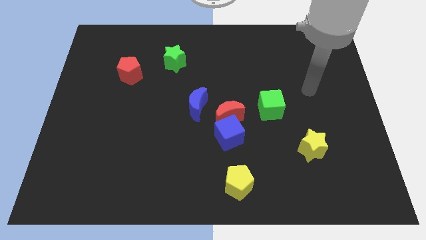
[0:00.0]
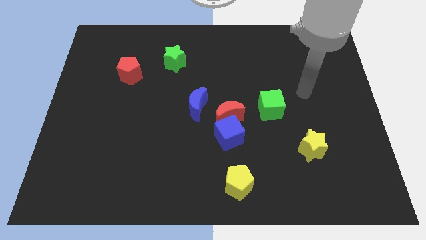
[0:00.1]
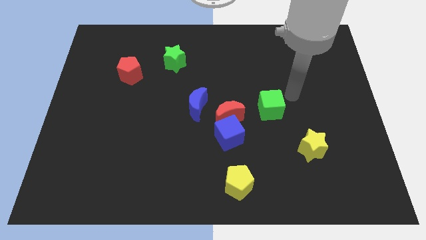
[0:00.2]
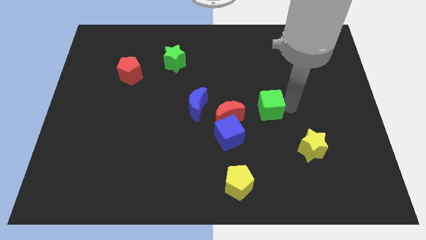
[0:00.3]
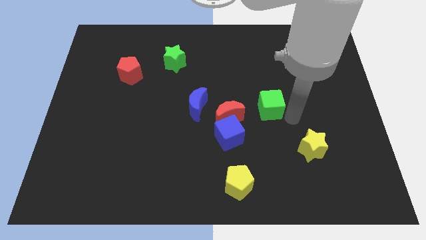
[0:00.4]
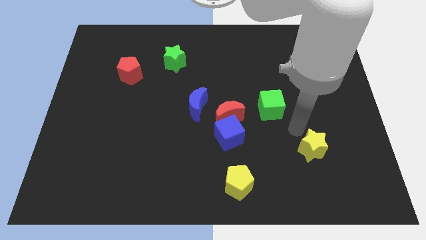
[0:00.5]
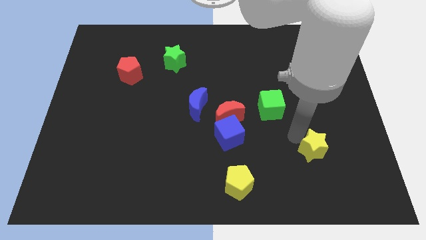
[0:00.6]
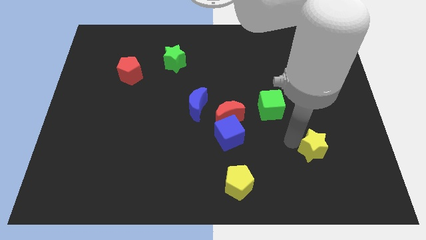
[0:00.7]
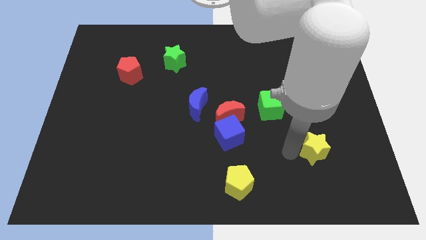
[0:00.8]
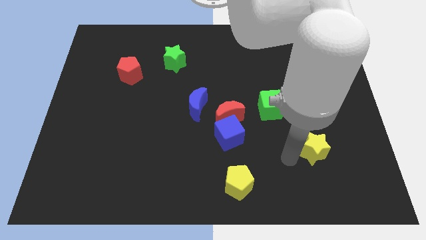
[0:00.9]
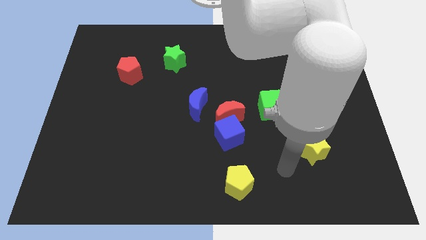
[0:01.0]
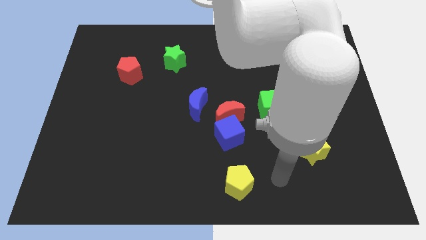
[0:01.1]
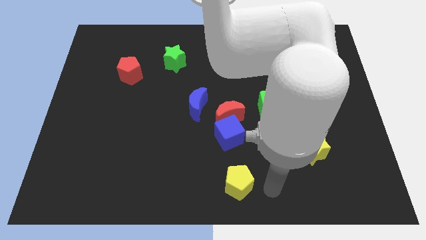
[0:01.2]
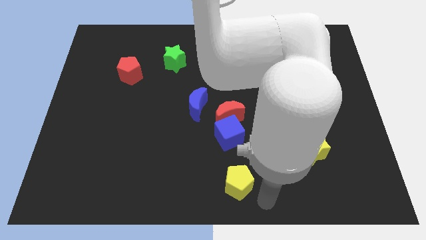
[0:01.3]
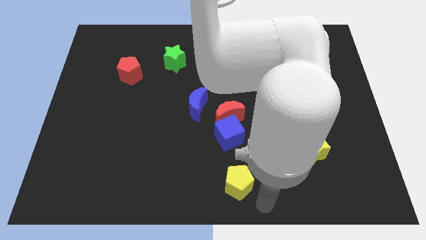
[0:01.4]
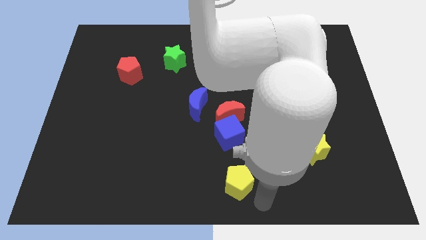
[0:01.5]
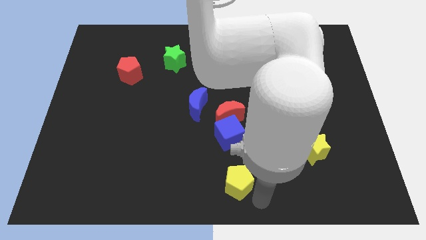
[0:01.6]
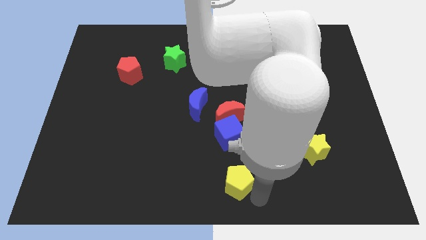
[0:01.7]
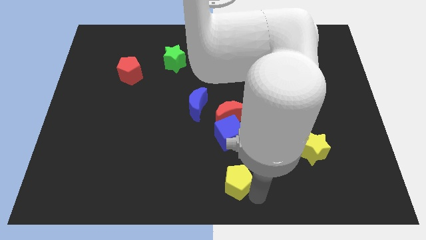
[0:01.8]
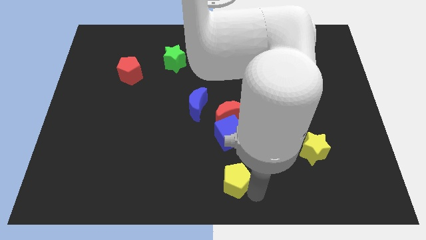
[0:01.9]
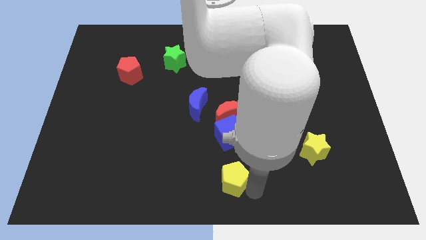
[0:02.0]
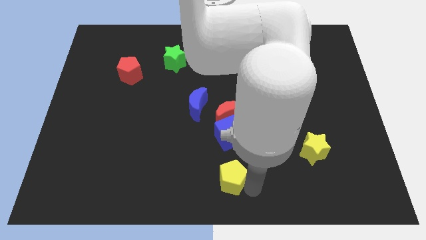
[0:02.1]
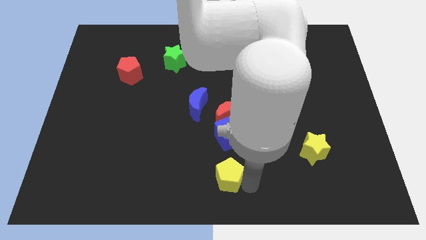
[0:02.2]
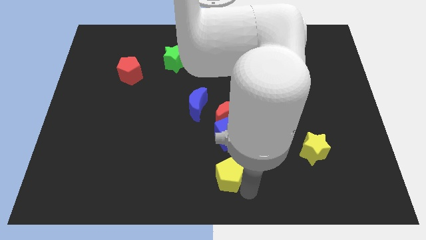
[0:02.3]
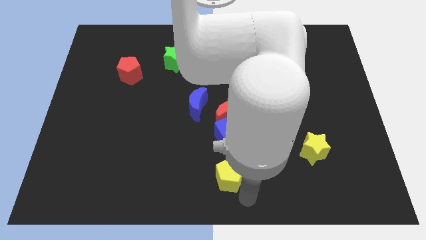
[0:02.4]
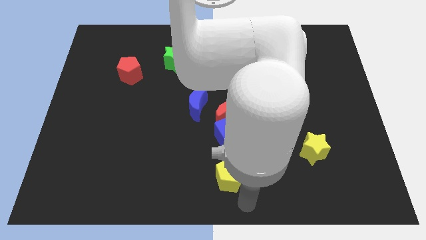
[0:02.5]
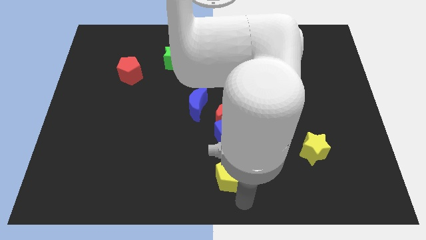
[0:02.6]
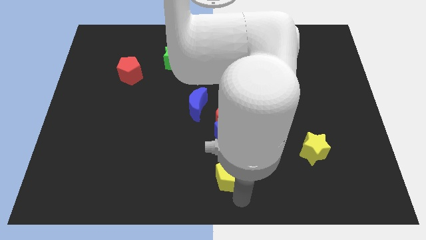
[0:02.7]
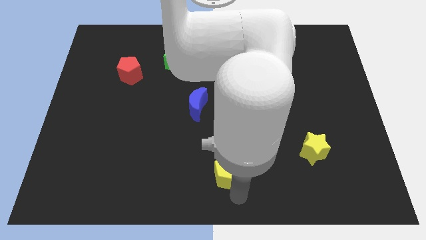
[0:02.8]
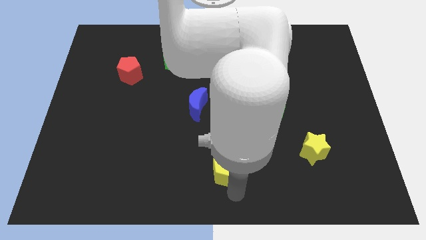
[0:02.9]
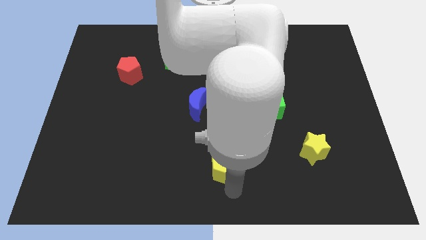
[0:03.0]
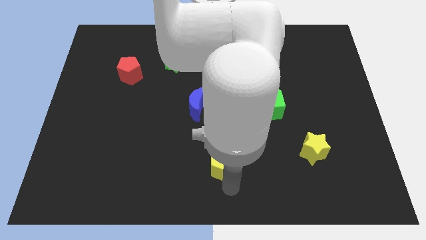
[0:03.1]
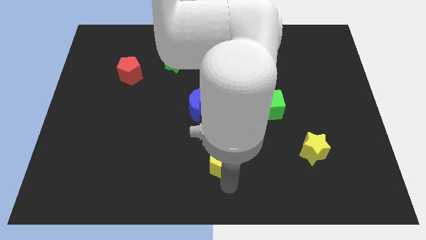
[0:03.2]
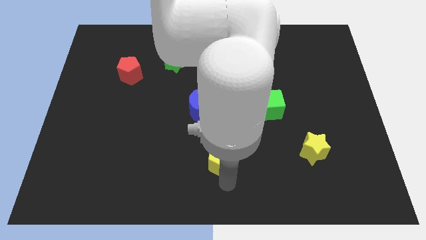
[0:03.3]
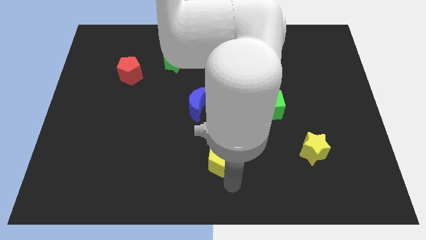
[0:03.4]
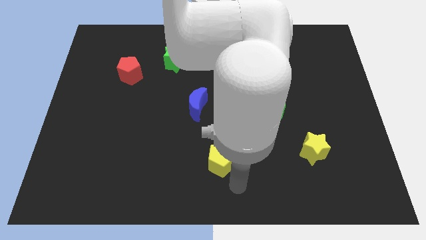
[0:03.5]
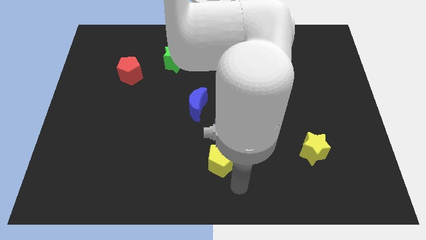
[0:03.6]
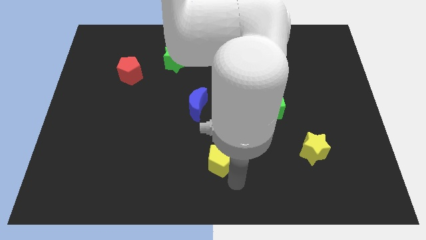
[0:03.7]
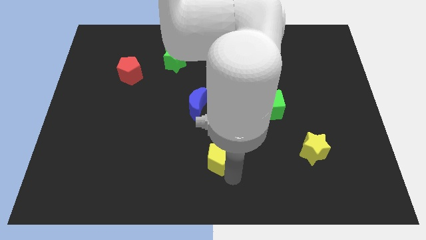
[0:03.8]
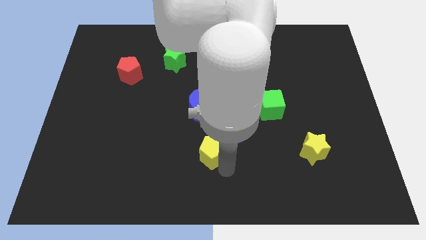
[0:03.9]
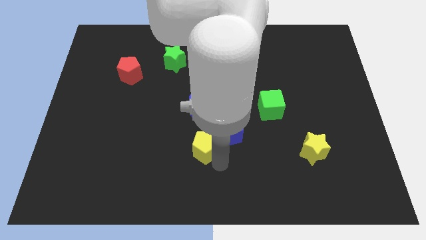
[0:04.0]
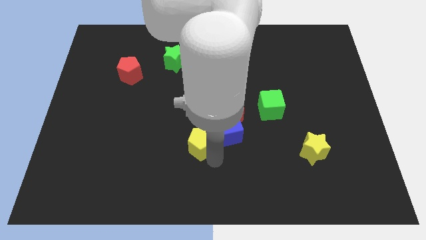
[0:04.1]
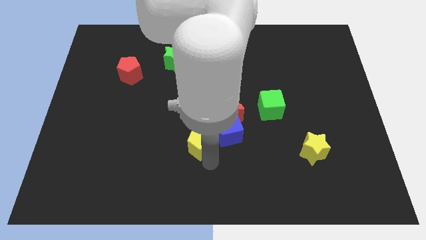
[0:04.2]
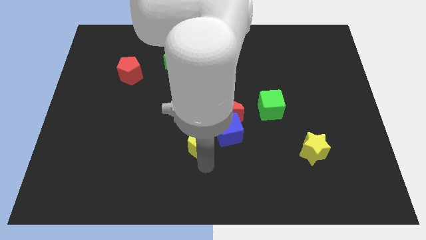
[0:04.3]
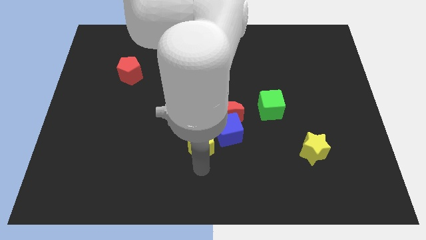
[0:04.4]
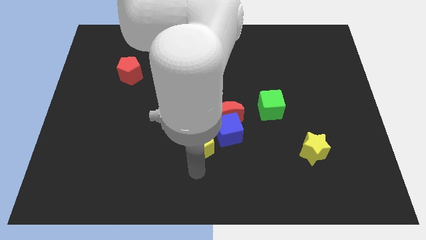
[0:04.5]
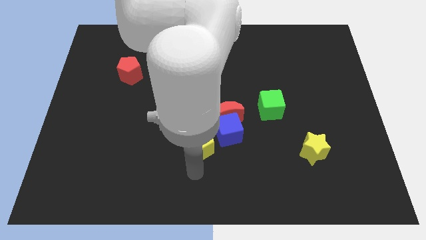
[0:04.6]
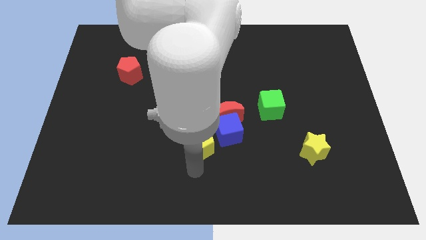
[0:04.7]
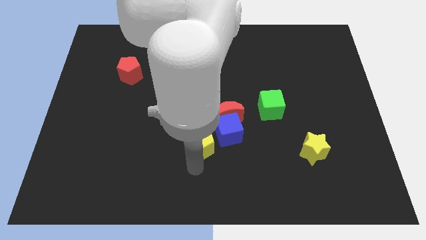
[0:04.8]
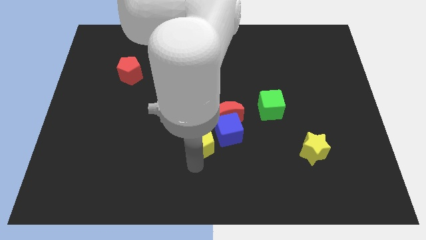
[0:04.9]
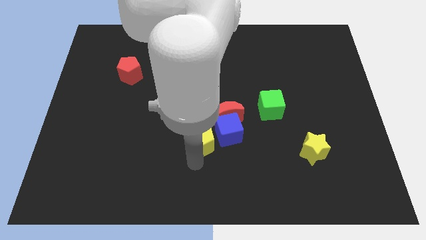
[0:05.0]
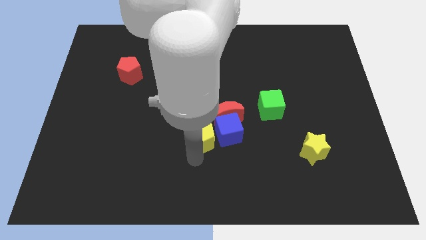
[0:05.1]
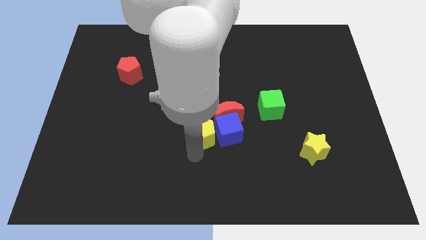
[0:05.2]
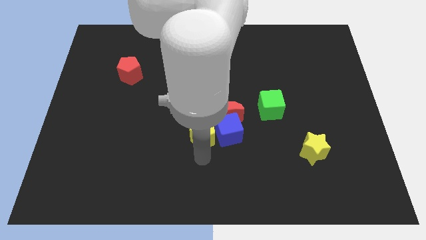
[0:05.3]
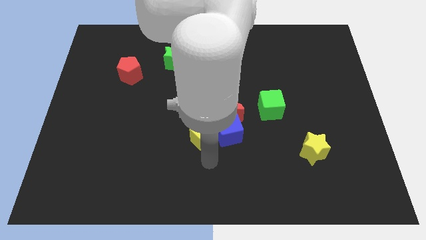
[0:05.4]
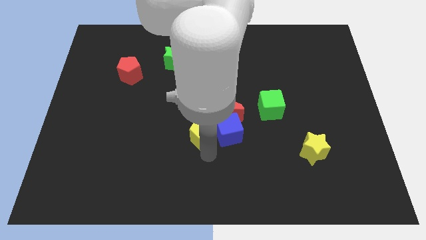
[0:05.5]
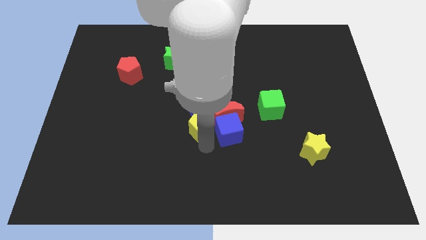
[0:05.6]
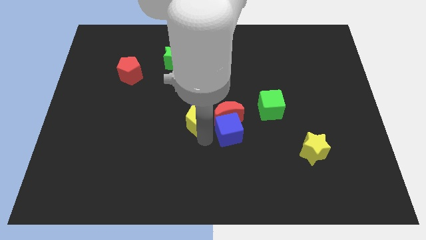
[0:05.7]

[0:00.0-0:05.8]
push the yellow pentagon towards the blue moon

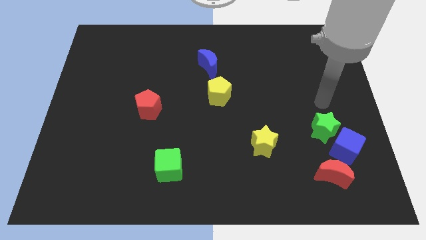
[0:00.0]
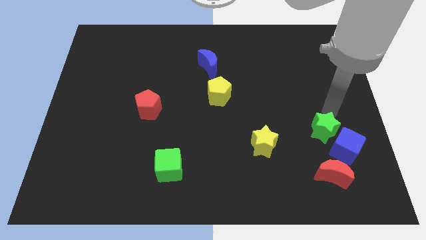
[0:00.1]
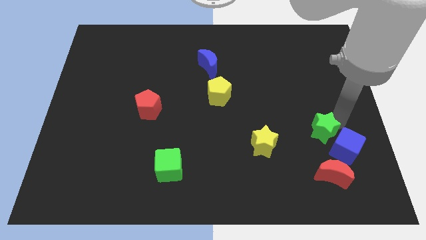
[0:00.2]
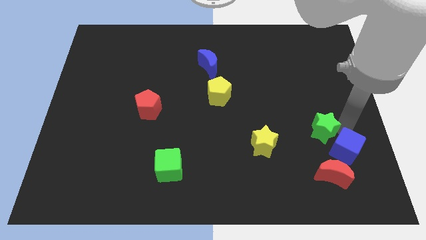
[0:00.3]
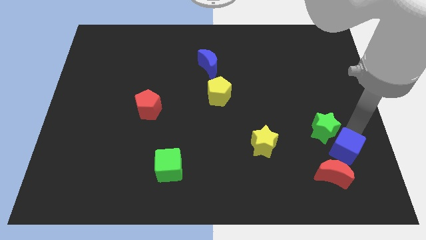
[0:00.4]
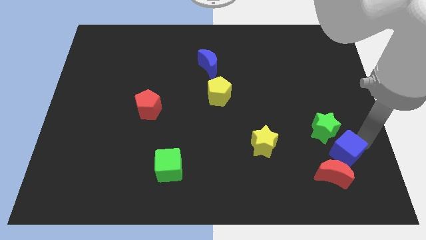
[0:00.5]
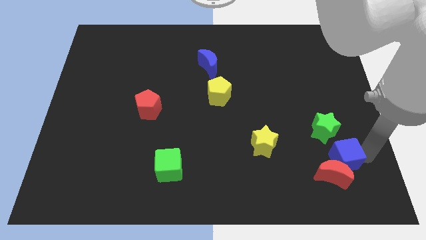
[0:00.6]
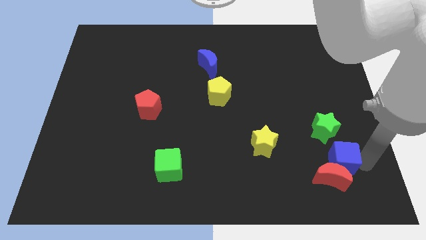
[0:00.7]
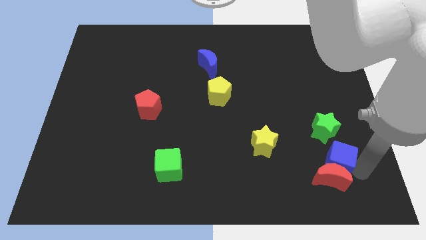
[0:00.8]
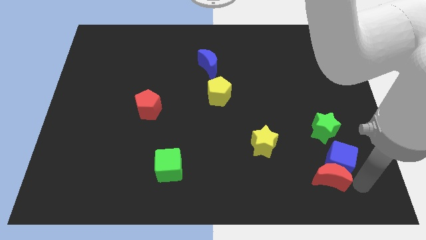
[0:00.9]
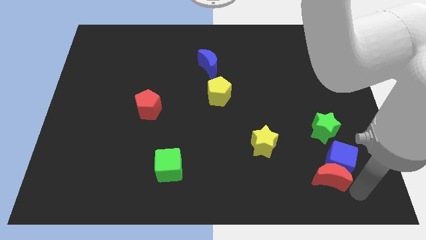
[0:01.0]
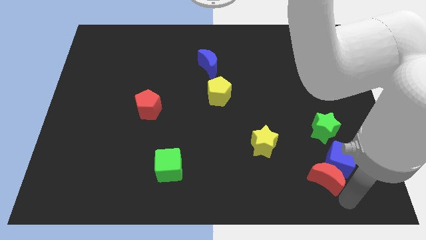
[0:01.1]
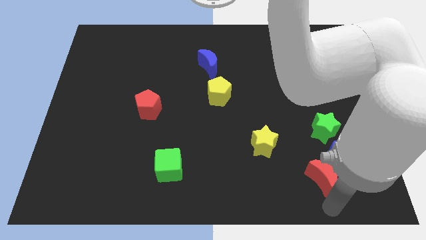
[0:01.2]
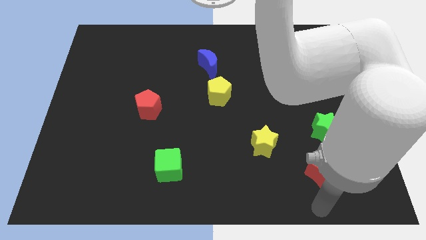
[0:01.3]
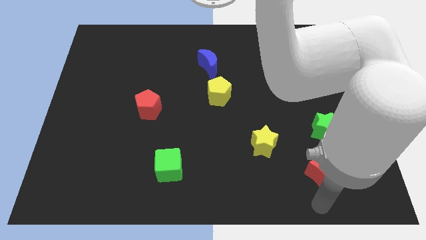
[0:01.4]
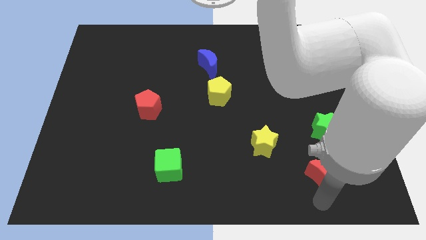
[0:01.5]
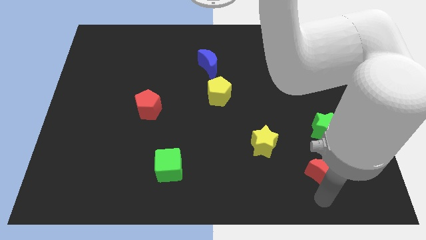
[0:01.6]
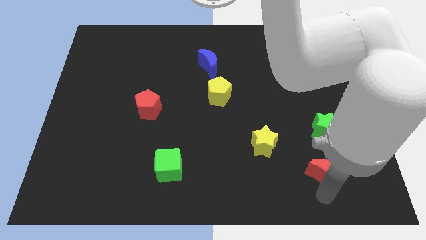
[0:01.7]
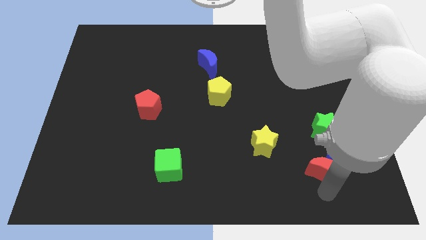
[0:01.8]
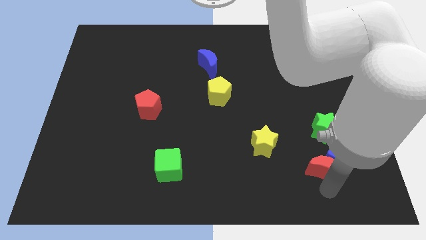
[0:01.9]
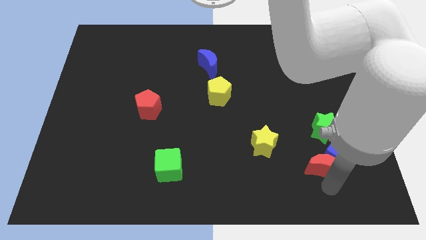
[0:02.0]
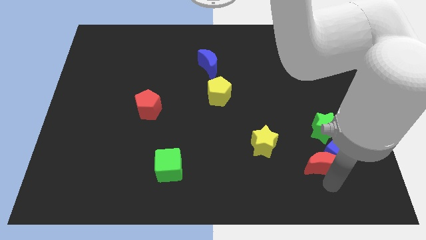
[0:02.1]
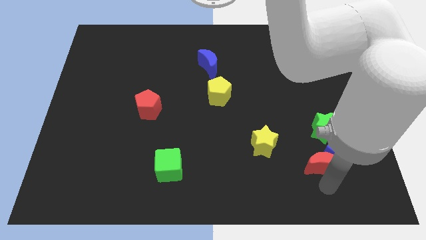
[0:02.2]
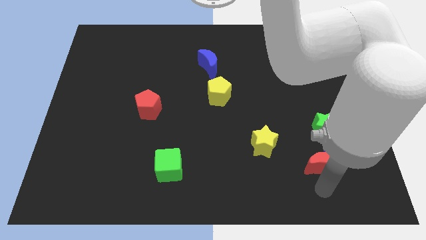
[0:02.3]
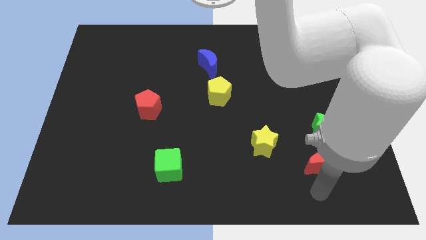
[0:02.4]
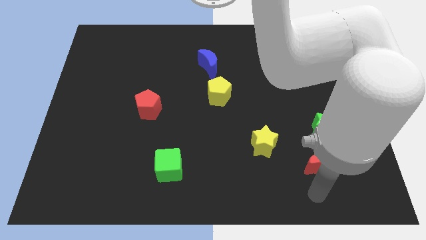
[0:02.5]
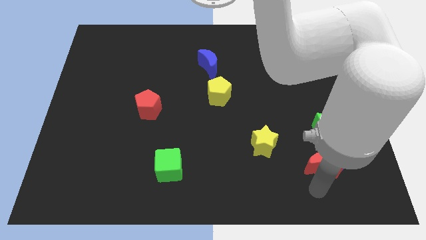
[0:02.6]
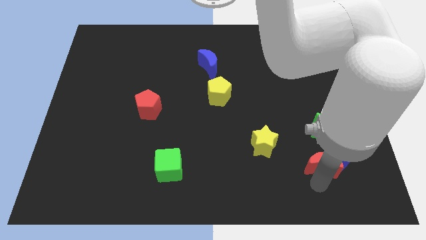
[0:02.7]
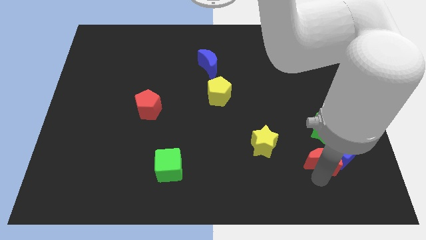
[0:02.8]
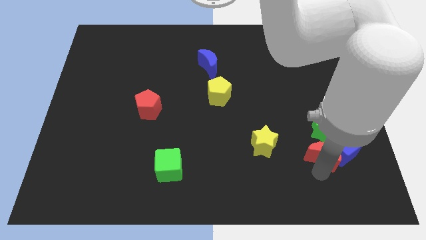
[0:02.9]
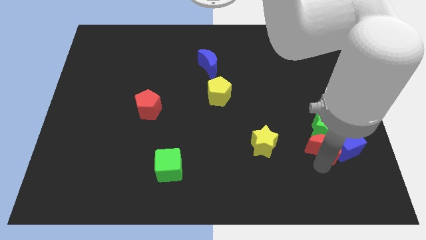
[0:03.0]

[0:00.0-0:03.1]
slide the red moon close to the green star
